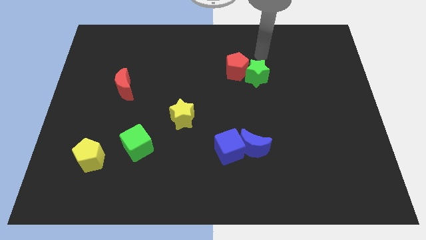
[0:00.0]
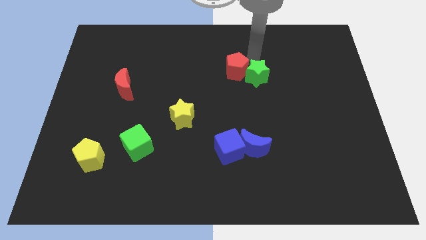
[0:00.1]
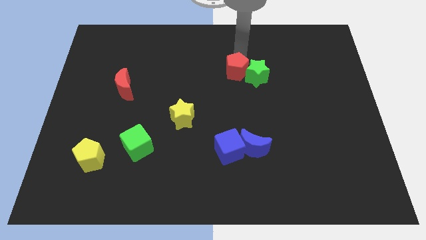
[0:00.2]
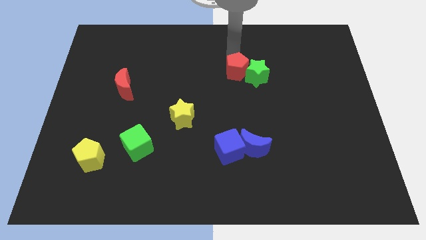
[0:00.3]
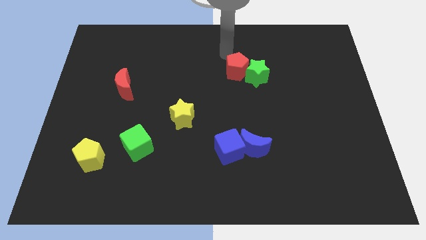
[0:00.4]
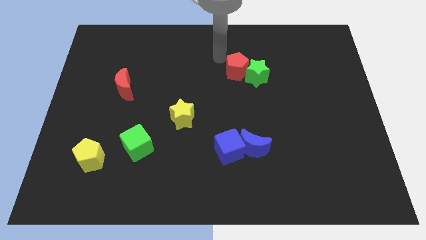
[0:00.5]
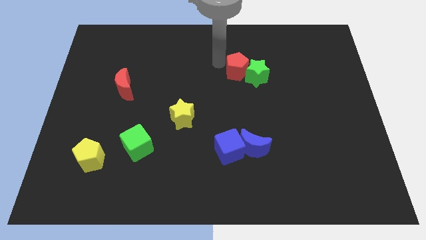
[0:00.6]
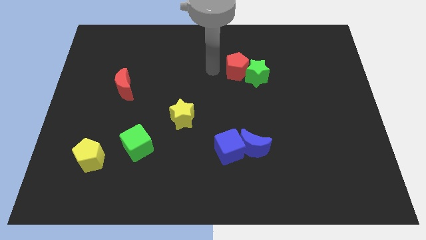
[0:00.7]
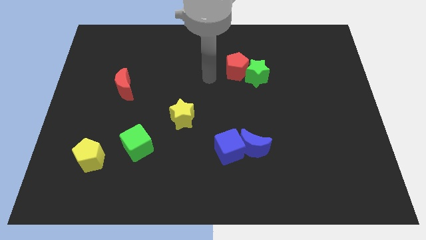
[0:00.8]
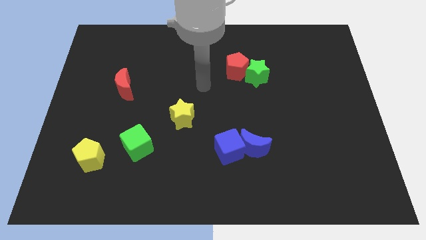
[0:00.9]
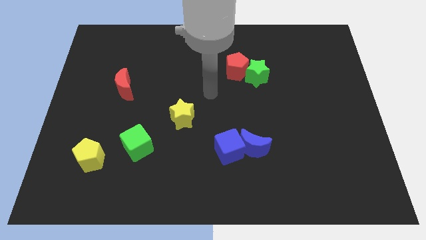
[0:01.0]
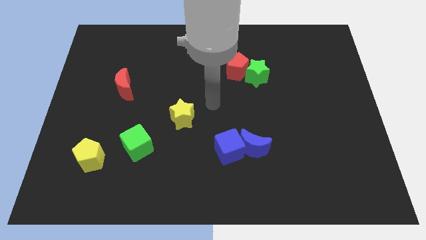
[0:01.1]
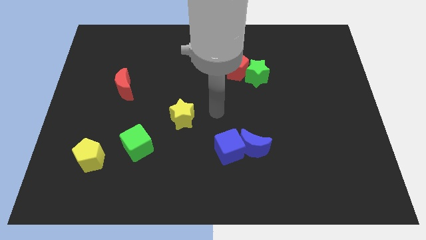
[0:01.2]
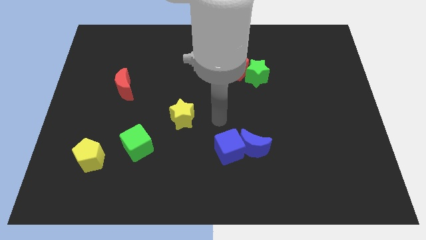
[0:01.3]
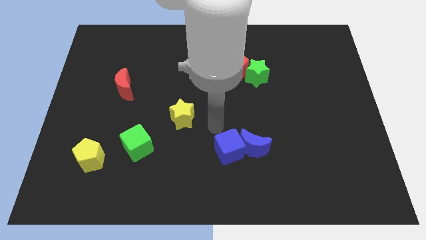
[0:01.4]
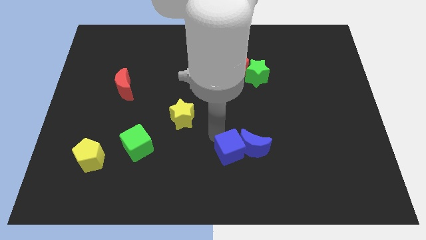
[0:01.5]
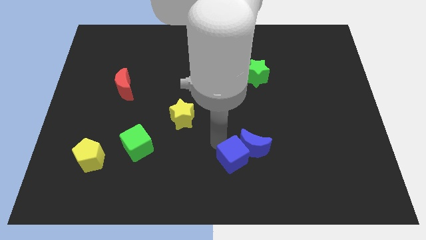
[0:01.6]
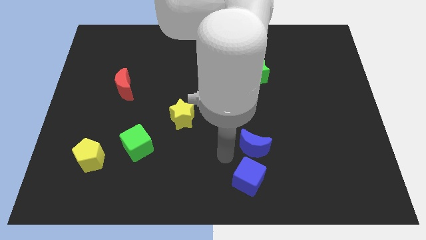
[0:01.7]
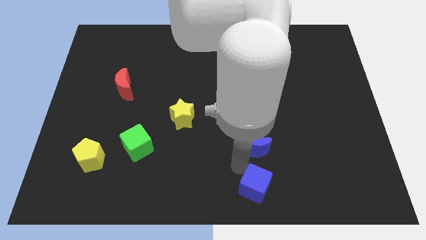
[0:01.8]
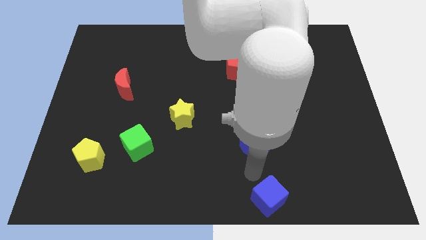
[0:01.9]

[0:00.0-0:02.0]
pull the blue moon apart from the blue cube

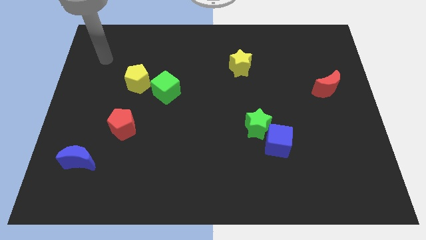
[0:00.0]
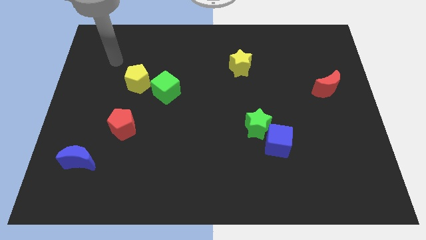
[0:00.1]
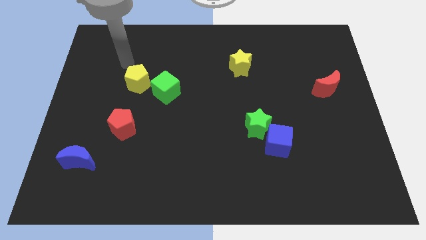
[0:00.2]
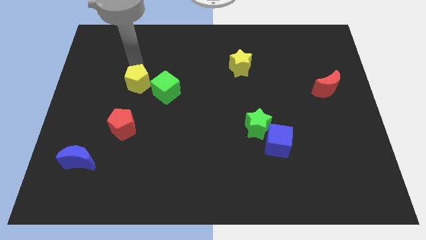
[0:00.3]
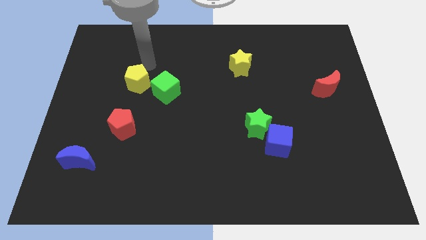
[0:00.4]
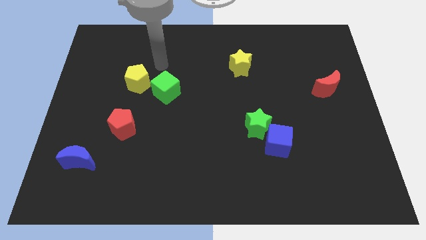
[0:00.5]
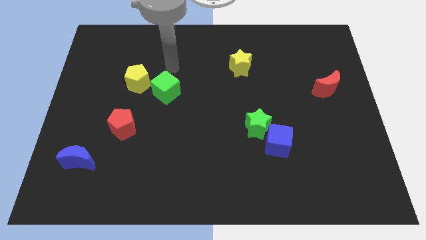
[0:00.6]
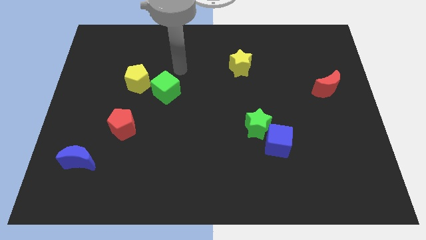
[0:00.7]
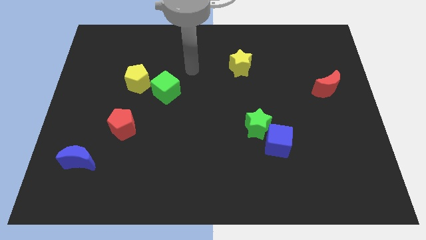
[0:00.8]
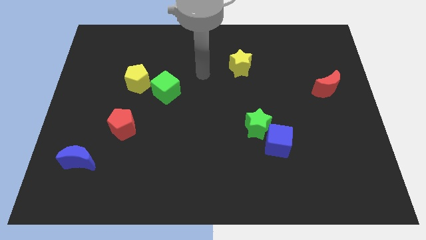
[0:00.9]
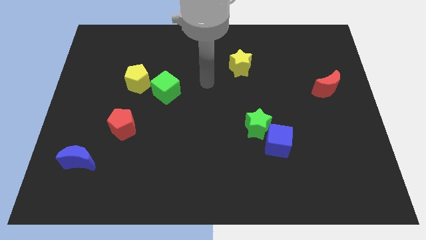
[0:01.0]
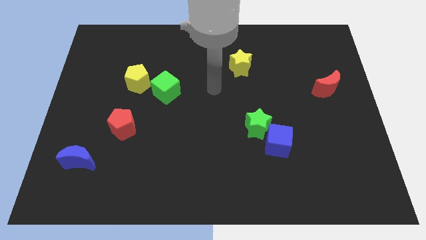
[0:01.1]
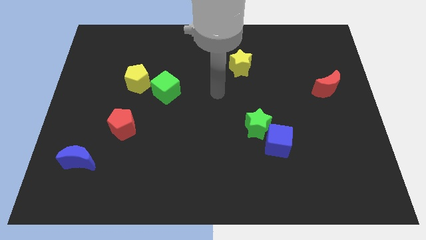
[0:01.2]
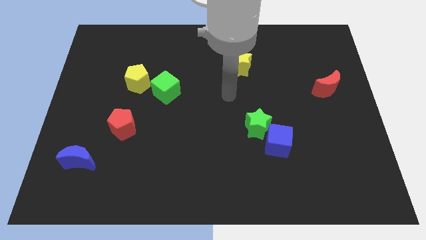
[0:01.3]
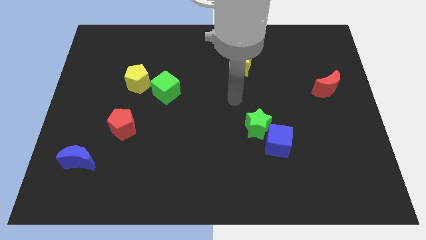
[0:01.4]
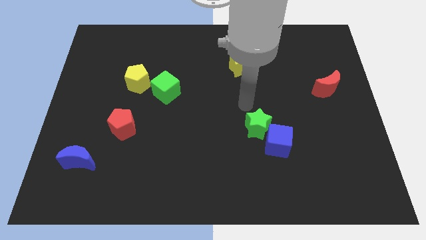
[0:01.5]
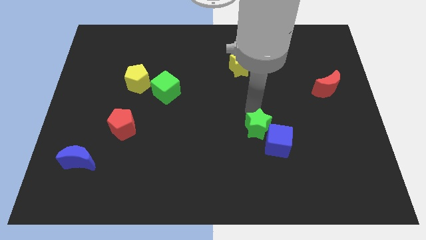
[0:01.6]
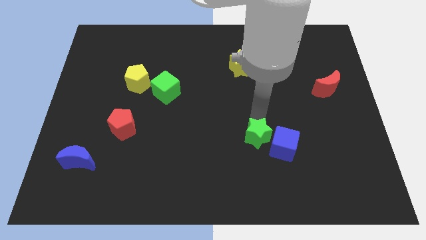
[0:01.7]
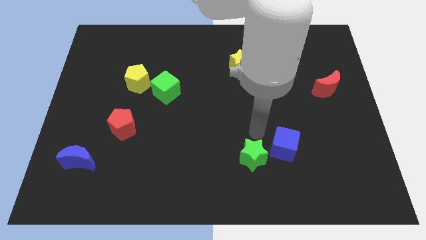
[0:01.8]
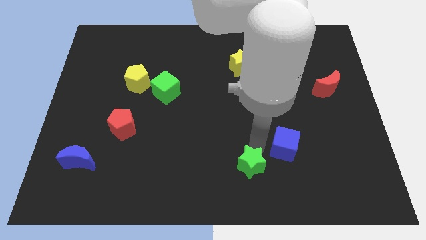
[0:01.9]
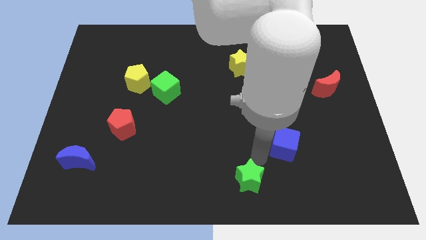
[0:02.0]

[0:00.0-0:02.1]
separate the blue cube from the green star

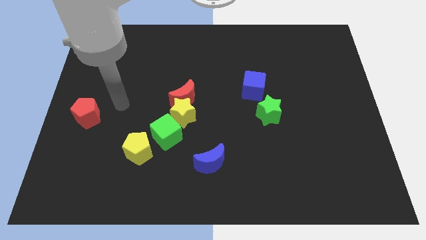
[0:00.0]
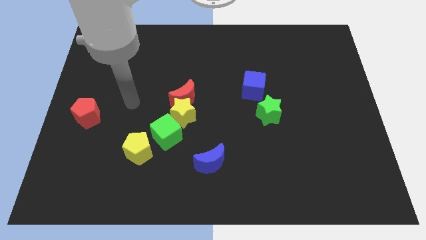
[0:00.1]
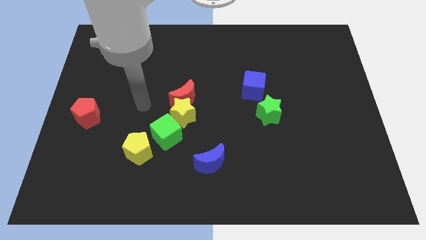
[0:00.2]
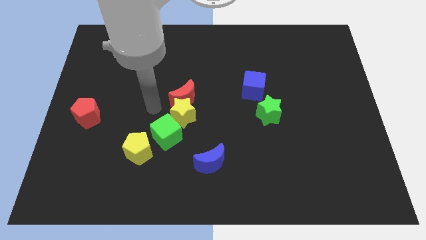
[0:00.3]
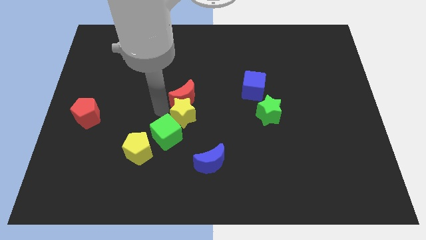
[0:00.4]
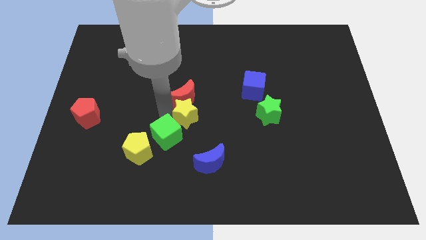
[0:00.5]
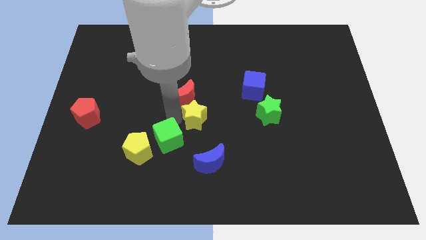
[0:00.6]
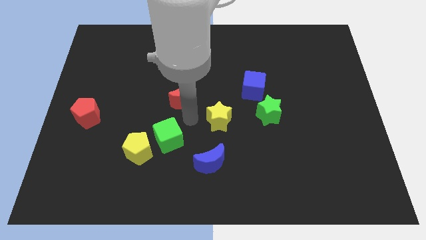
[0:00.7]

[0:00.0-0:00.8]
separate the red moon from the yellow star

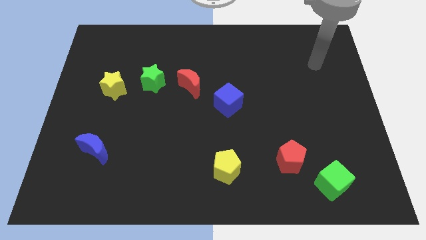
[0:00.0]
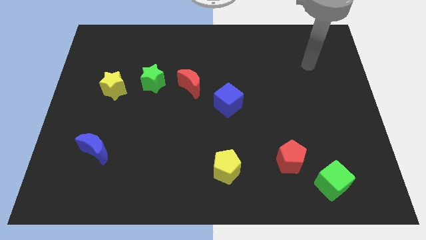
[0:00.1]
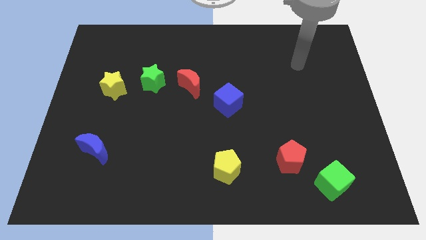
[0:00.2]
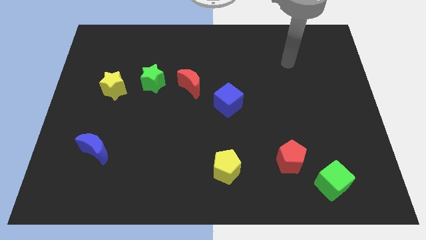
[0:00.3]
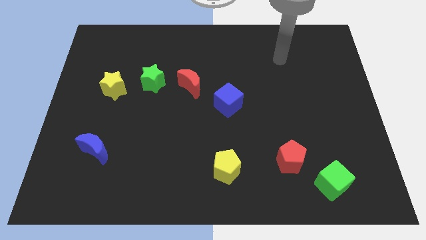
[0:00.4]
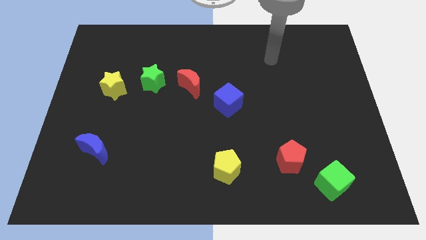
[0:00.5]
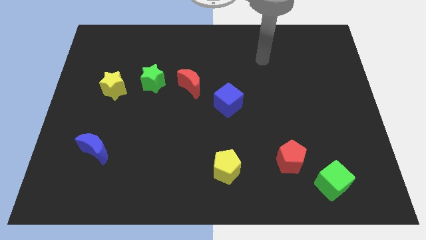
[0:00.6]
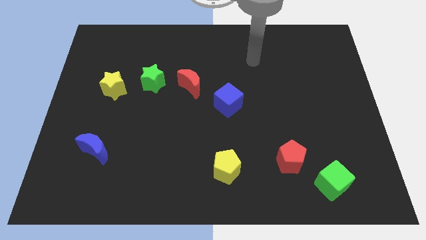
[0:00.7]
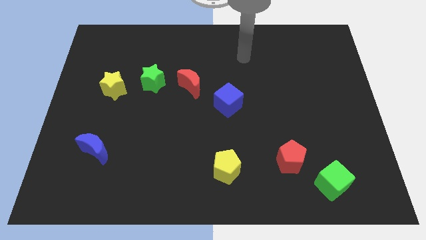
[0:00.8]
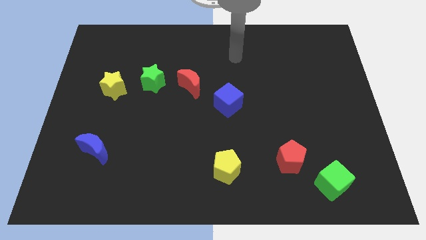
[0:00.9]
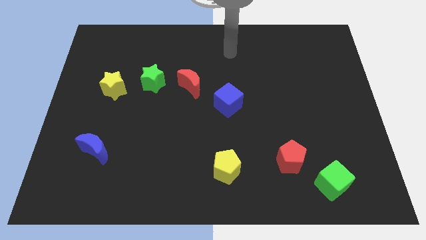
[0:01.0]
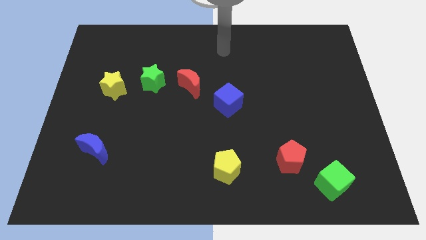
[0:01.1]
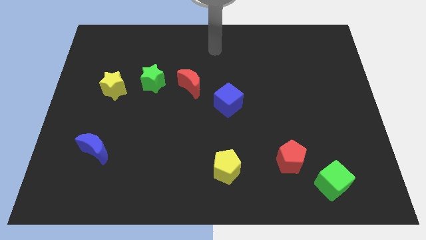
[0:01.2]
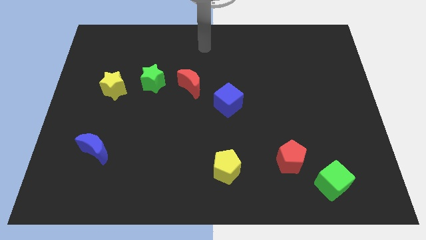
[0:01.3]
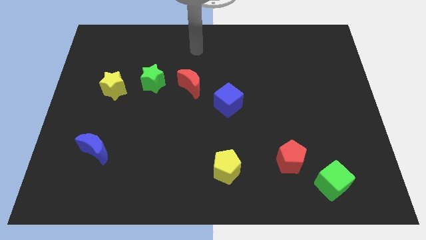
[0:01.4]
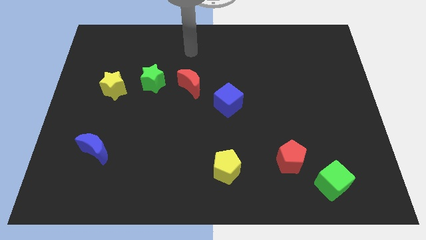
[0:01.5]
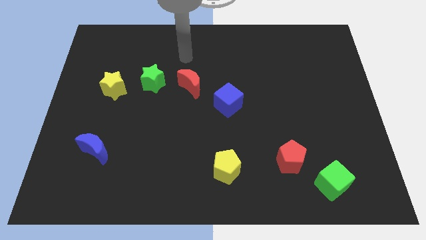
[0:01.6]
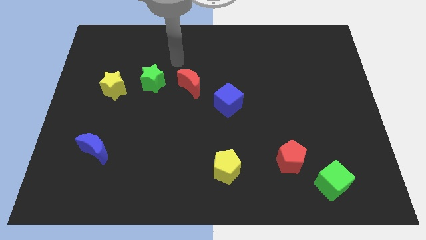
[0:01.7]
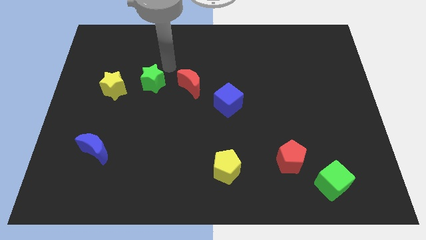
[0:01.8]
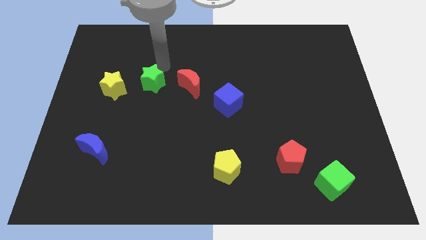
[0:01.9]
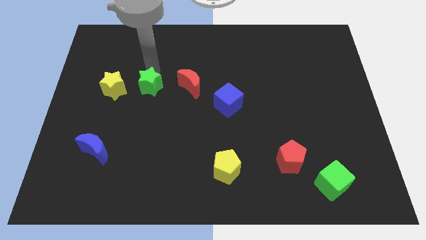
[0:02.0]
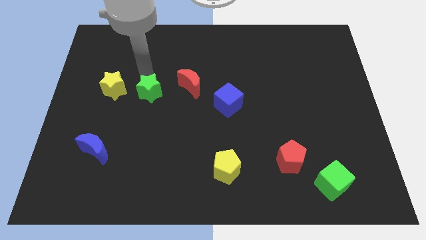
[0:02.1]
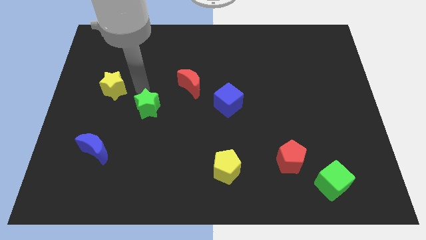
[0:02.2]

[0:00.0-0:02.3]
move the yellow star away from the green star

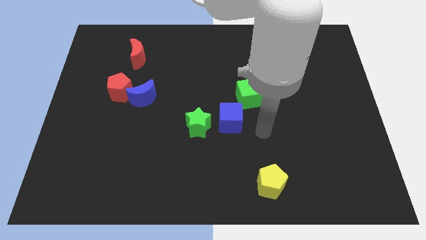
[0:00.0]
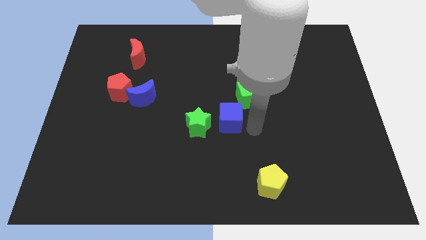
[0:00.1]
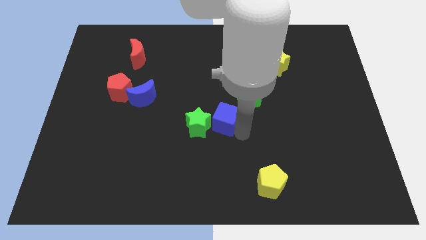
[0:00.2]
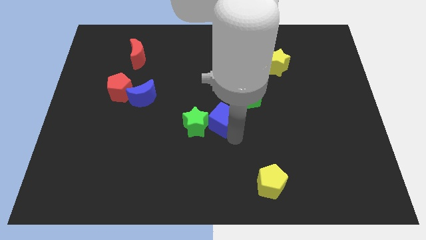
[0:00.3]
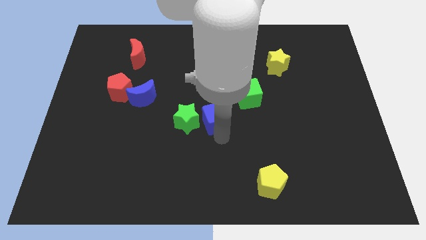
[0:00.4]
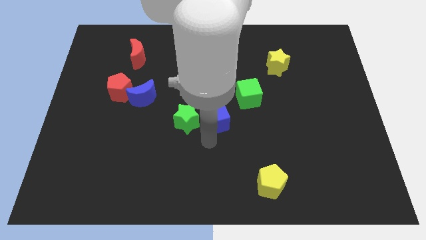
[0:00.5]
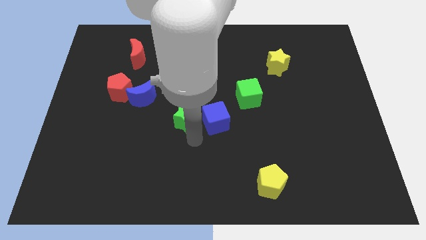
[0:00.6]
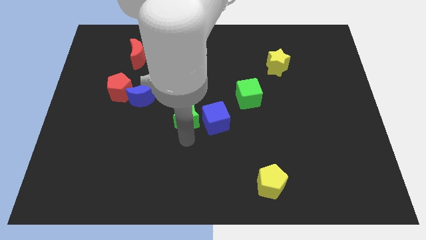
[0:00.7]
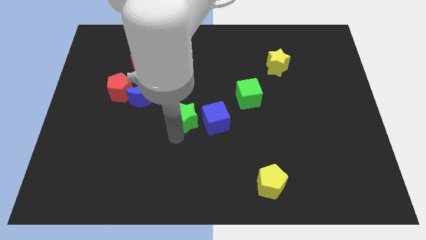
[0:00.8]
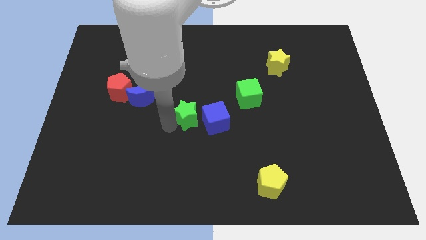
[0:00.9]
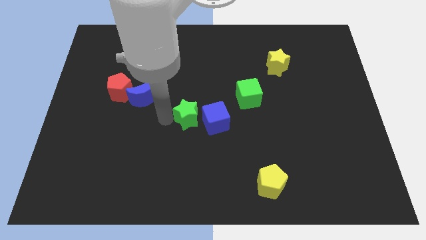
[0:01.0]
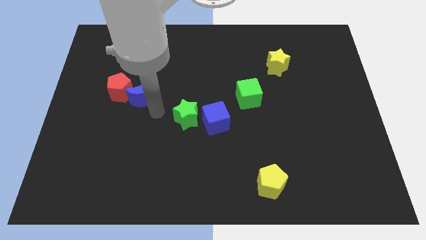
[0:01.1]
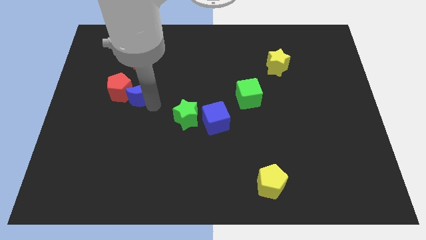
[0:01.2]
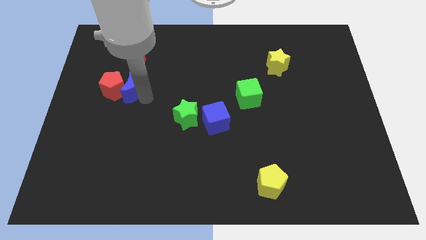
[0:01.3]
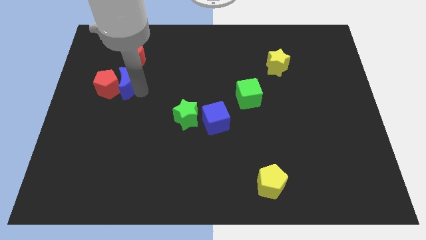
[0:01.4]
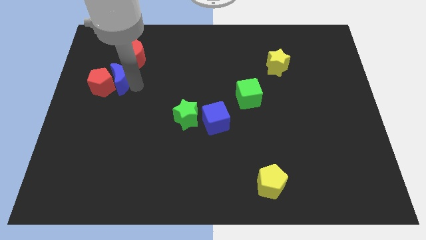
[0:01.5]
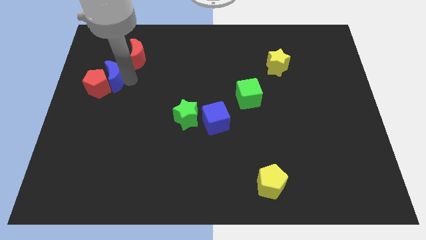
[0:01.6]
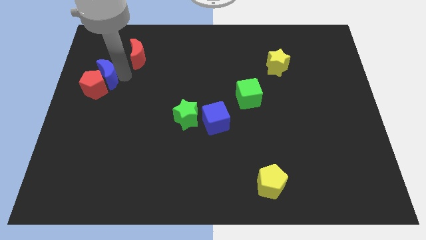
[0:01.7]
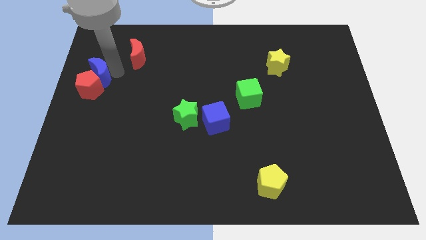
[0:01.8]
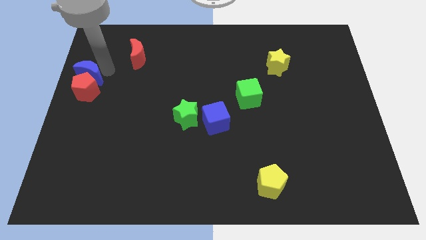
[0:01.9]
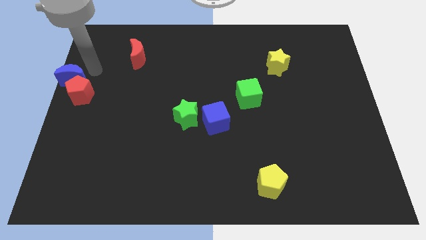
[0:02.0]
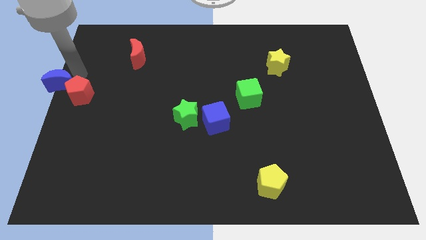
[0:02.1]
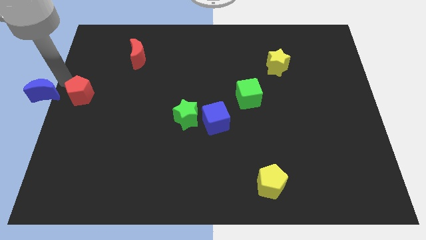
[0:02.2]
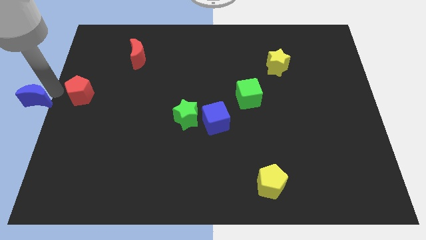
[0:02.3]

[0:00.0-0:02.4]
move the red pentagon away from the blue moon

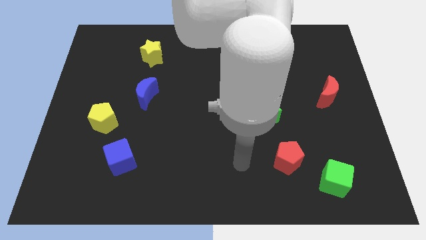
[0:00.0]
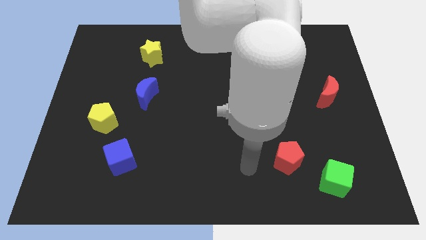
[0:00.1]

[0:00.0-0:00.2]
pull the red pentagon apart from the green cube
